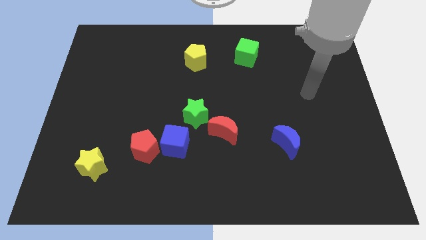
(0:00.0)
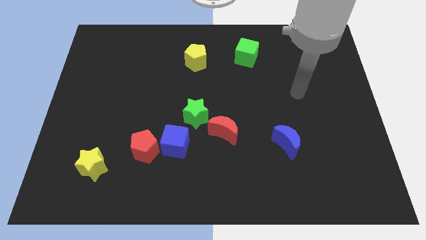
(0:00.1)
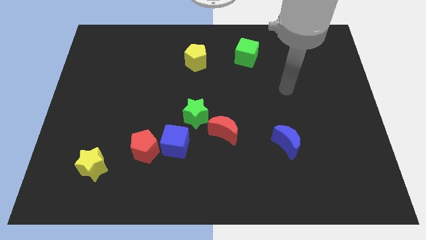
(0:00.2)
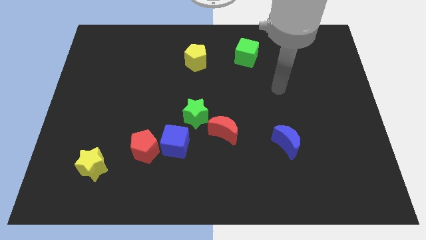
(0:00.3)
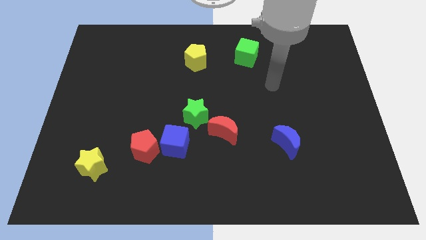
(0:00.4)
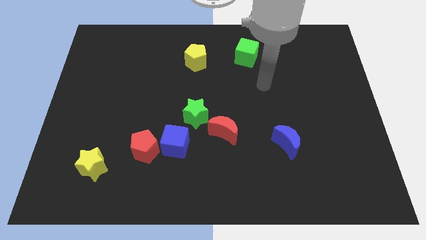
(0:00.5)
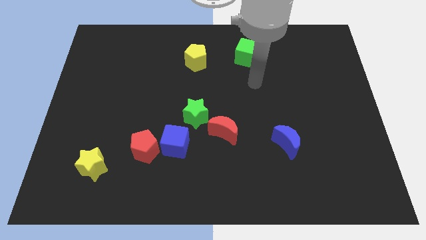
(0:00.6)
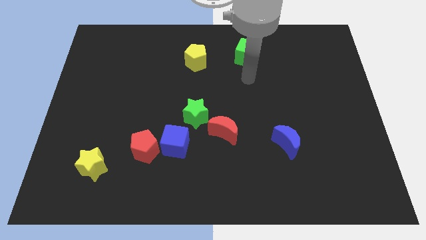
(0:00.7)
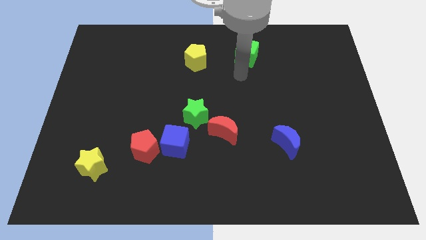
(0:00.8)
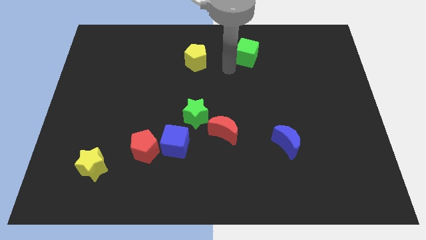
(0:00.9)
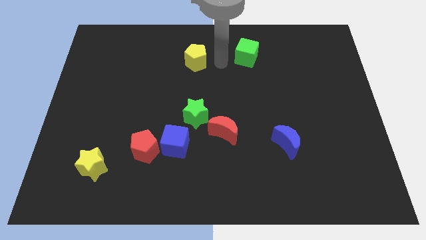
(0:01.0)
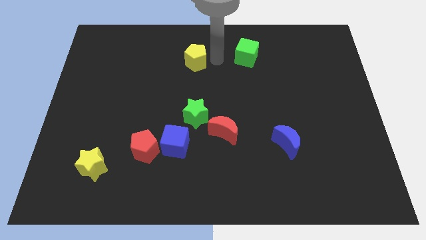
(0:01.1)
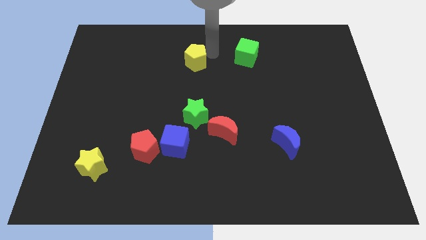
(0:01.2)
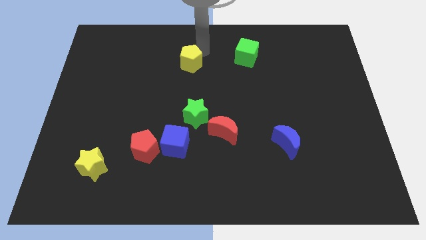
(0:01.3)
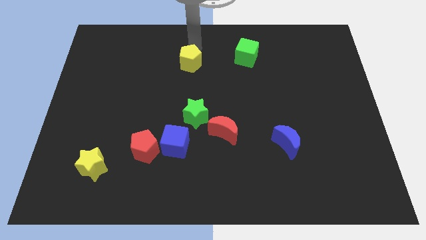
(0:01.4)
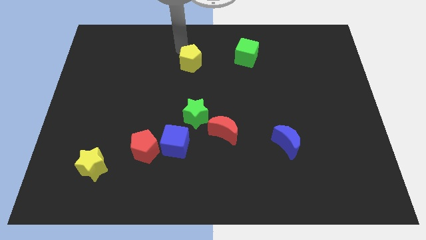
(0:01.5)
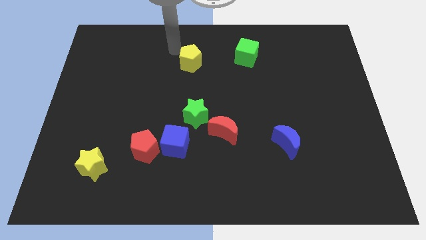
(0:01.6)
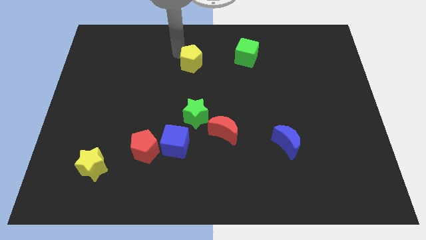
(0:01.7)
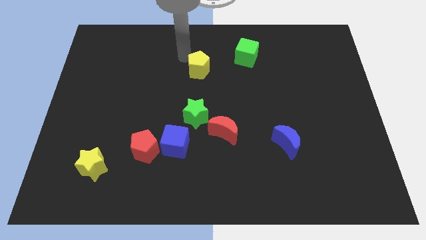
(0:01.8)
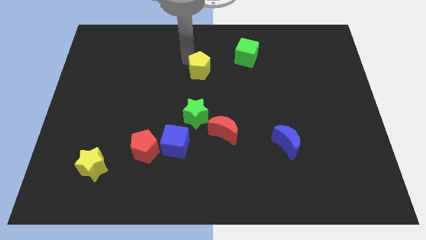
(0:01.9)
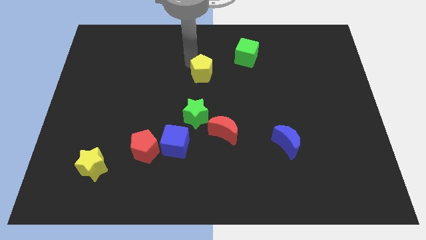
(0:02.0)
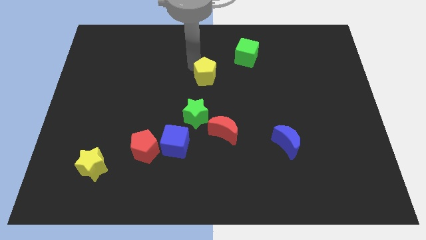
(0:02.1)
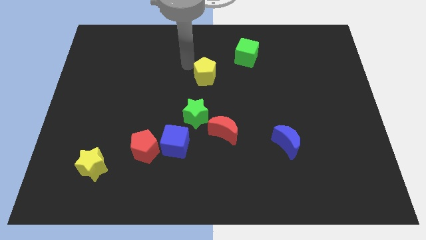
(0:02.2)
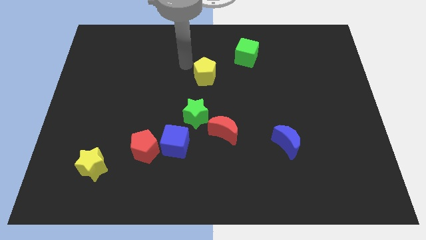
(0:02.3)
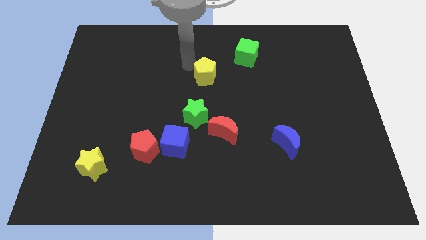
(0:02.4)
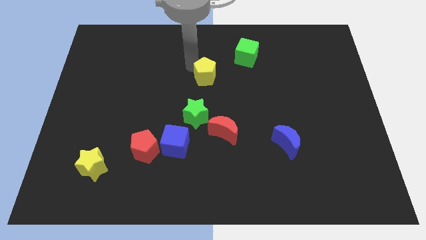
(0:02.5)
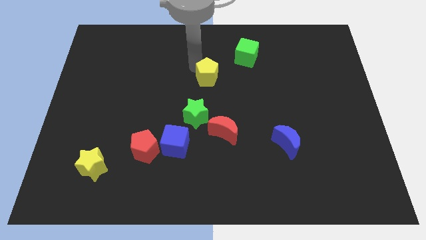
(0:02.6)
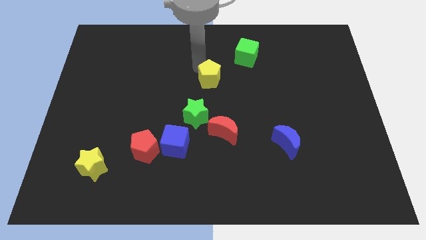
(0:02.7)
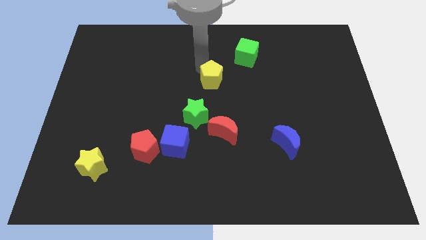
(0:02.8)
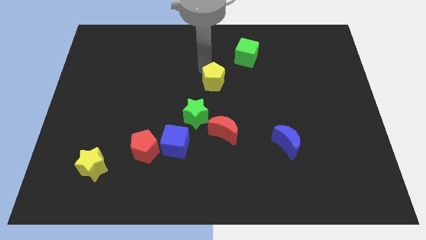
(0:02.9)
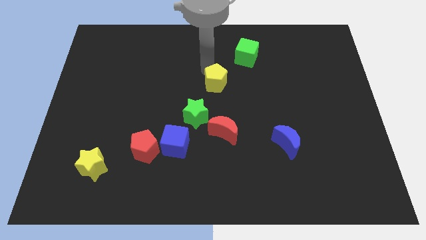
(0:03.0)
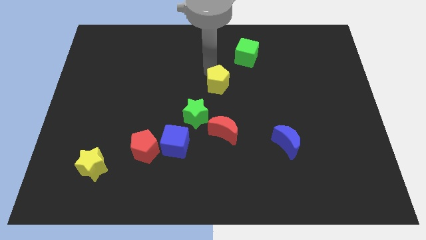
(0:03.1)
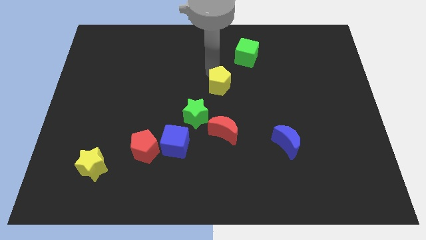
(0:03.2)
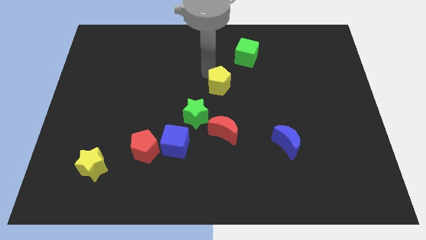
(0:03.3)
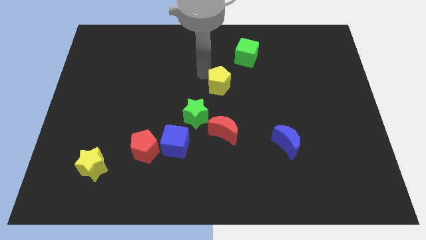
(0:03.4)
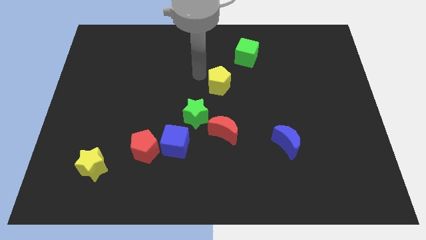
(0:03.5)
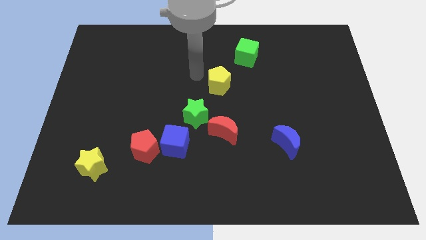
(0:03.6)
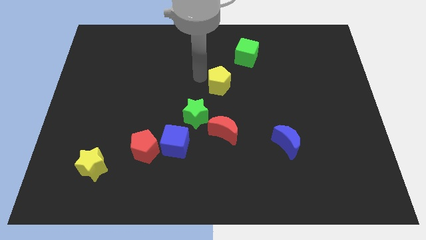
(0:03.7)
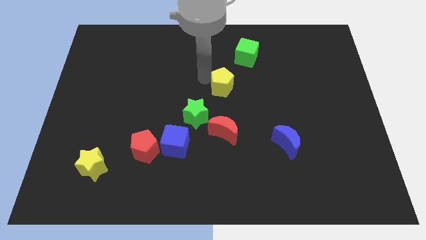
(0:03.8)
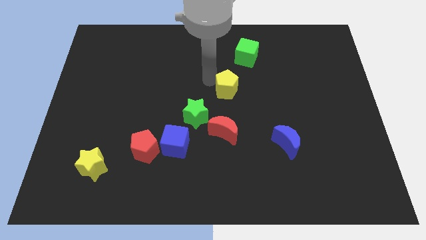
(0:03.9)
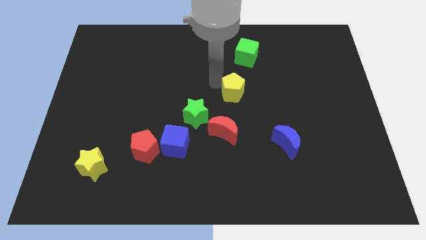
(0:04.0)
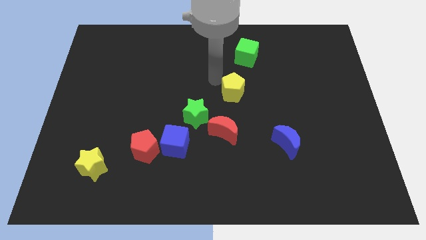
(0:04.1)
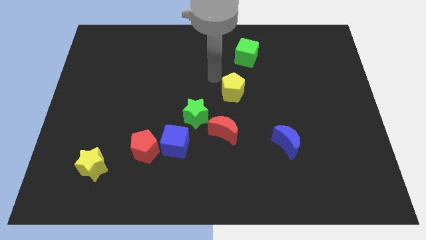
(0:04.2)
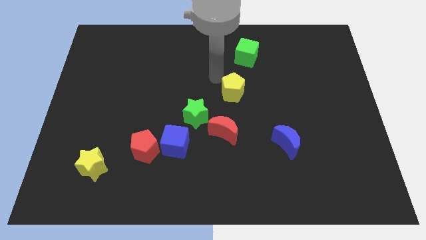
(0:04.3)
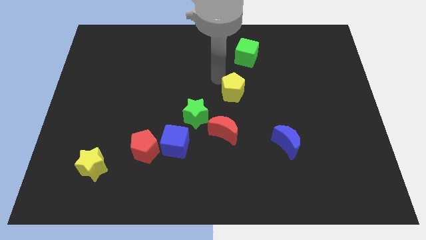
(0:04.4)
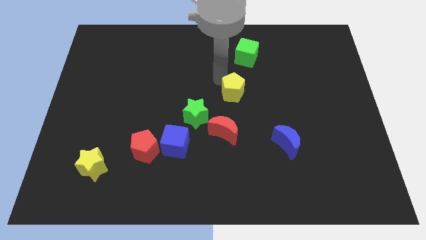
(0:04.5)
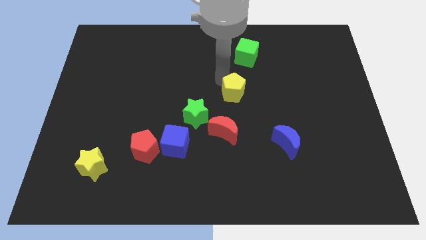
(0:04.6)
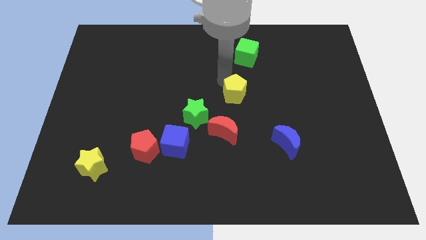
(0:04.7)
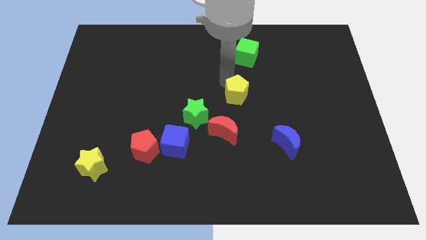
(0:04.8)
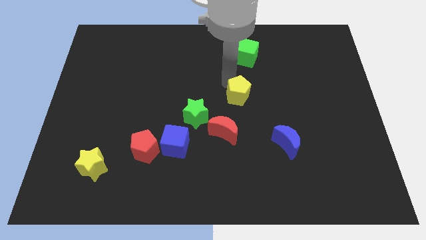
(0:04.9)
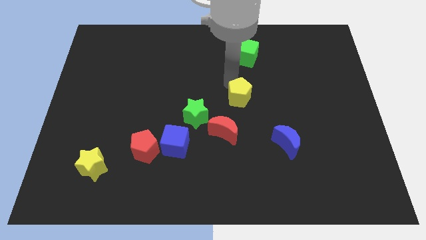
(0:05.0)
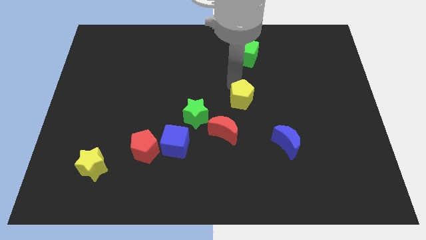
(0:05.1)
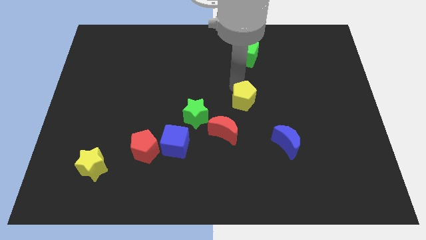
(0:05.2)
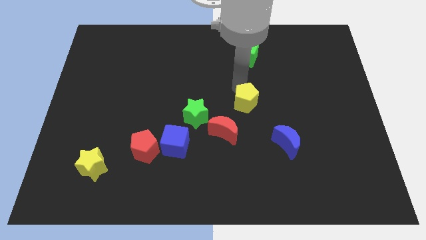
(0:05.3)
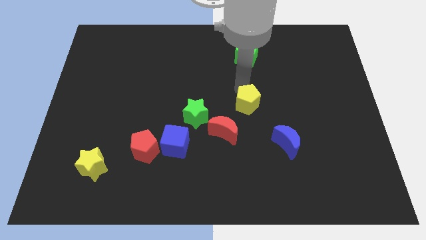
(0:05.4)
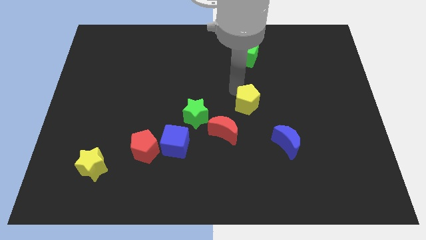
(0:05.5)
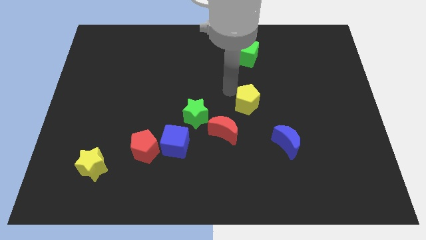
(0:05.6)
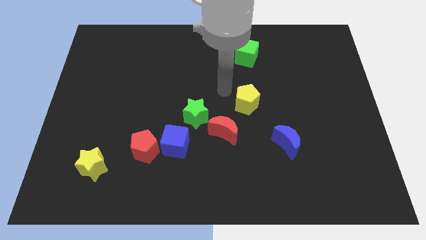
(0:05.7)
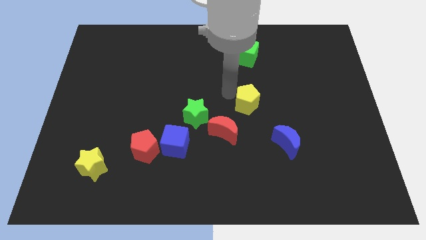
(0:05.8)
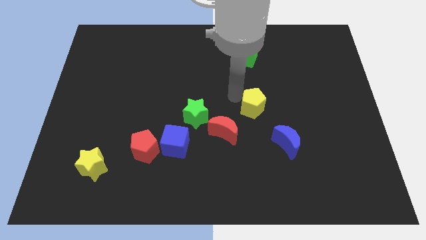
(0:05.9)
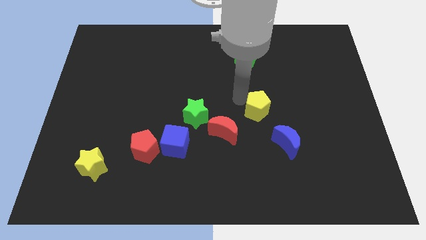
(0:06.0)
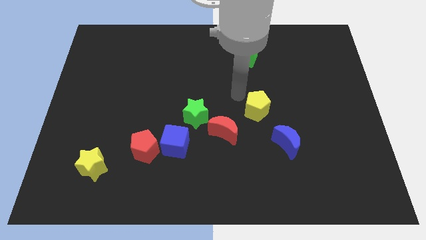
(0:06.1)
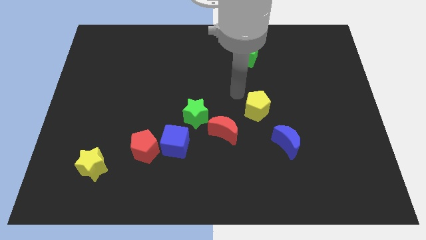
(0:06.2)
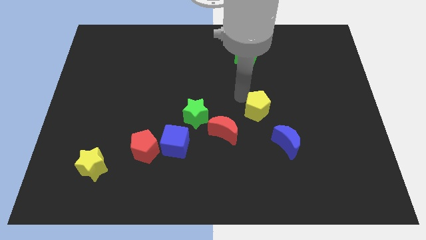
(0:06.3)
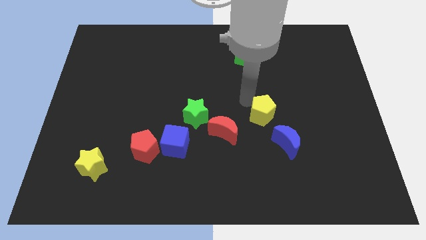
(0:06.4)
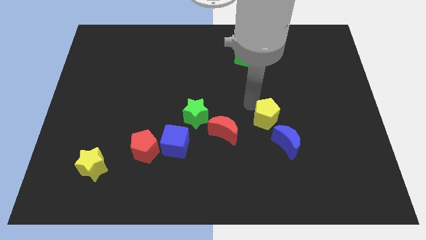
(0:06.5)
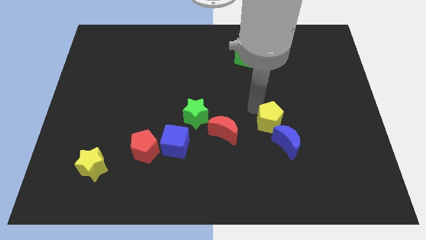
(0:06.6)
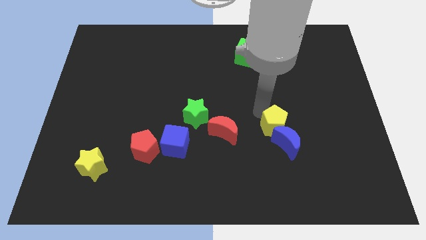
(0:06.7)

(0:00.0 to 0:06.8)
move the yellow pentagon close to the blue moon

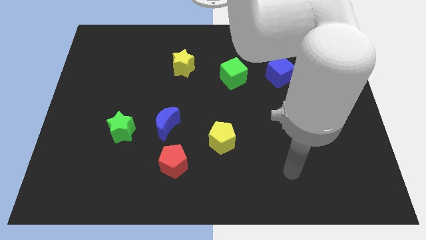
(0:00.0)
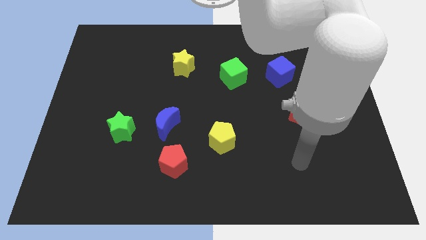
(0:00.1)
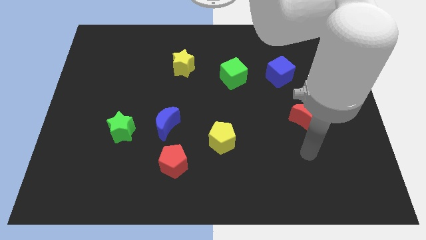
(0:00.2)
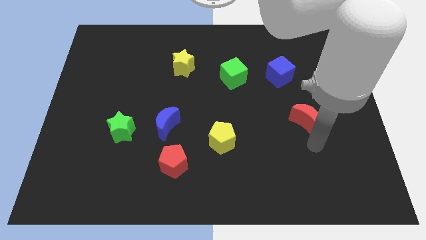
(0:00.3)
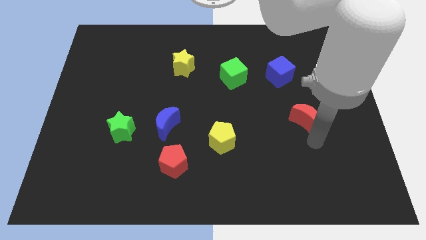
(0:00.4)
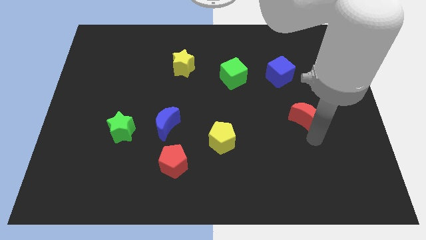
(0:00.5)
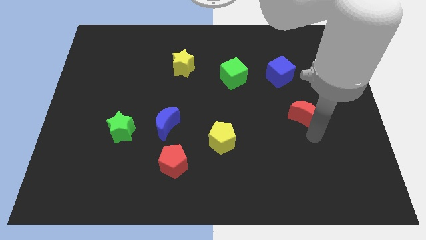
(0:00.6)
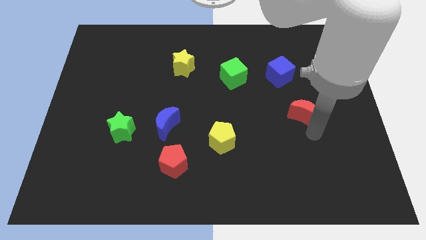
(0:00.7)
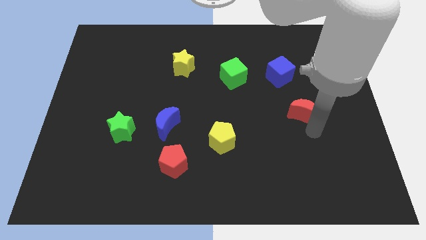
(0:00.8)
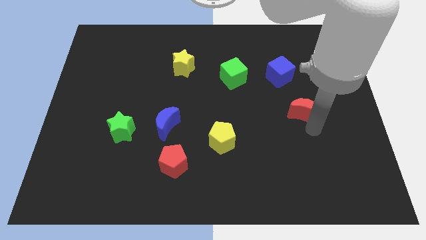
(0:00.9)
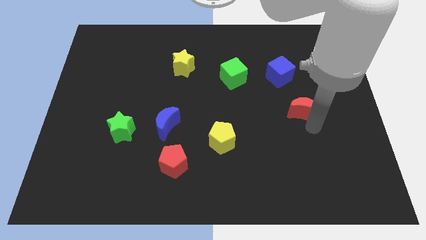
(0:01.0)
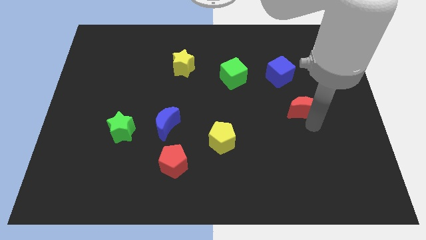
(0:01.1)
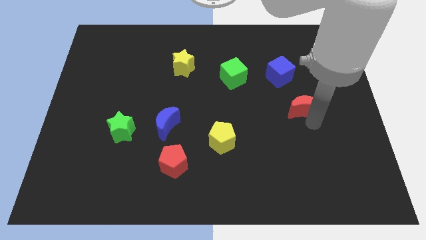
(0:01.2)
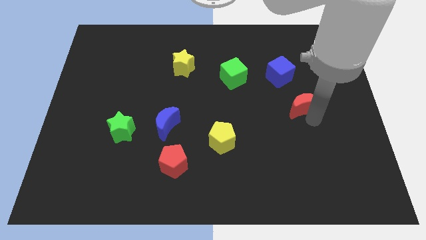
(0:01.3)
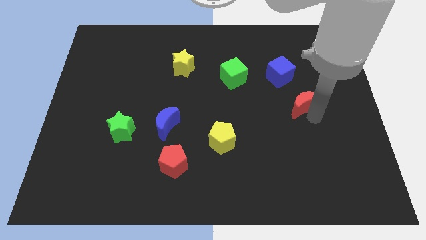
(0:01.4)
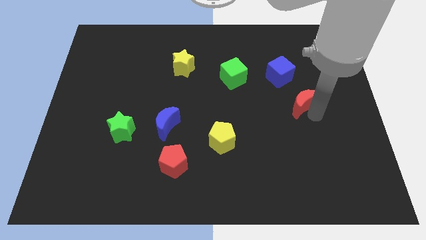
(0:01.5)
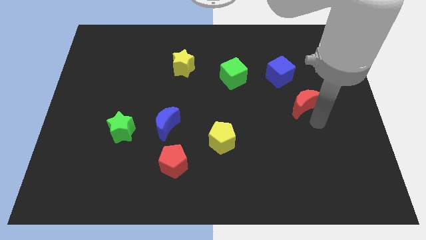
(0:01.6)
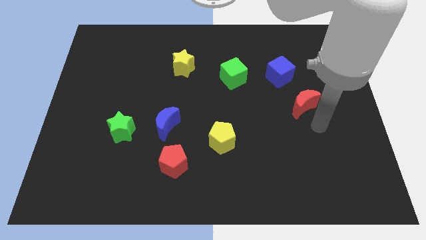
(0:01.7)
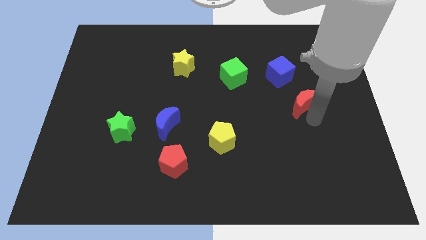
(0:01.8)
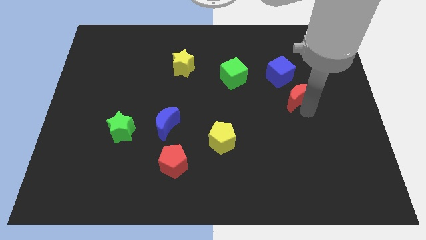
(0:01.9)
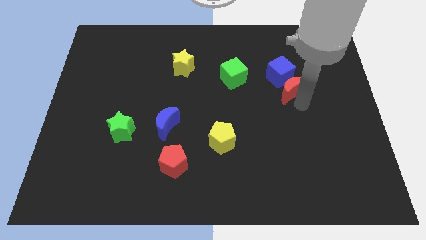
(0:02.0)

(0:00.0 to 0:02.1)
put the red moon towards the blue cube
